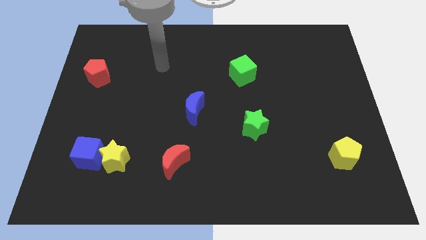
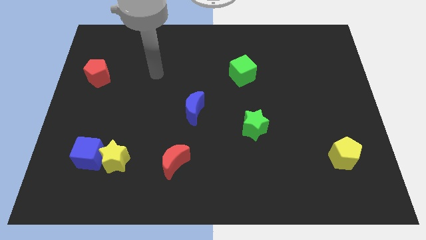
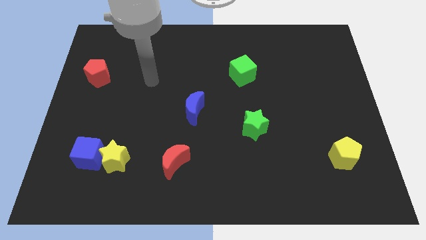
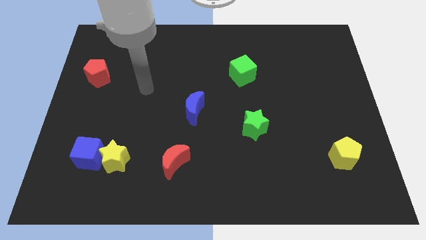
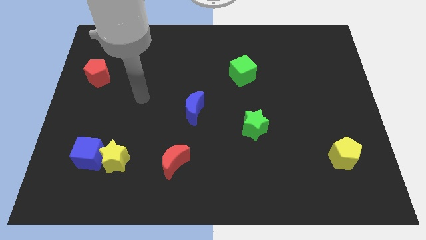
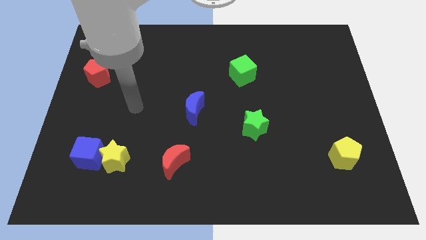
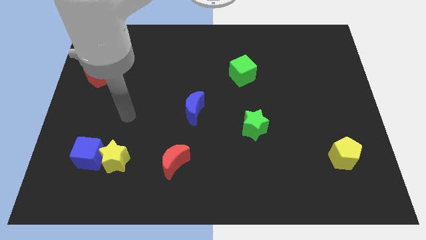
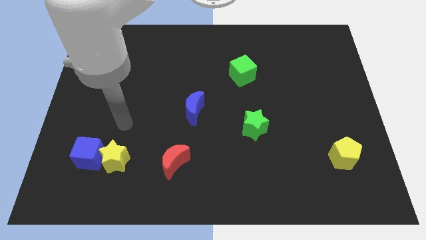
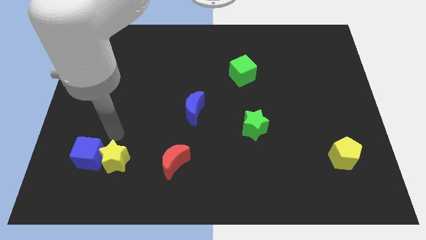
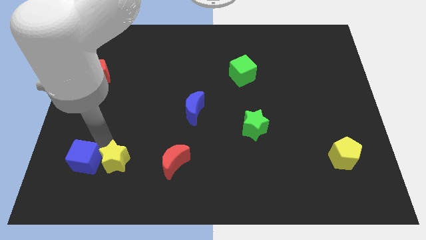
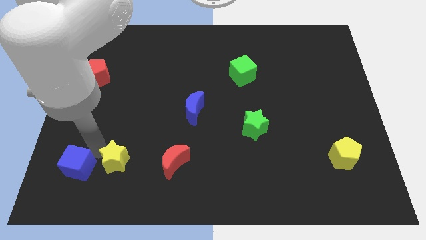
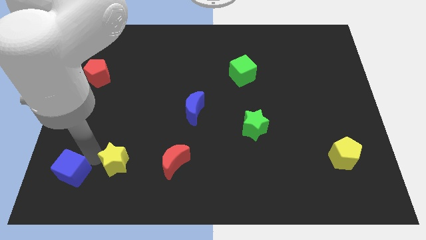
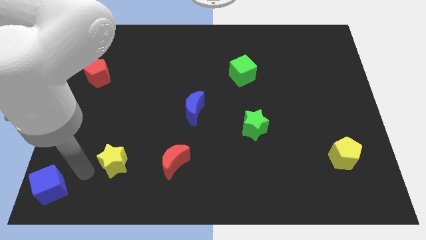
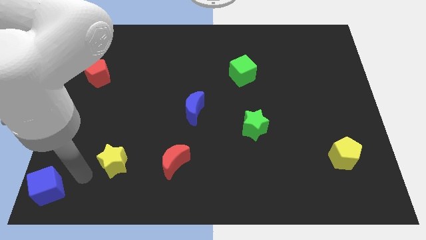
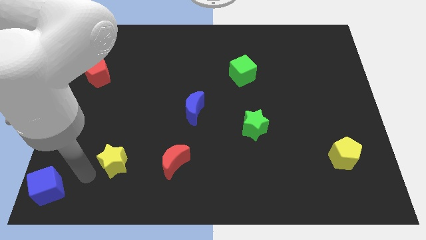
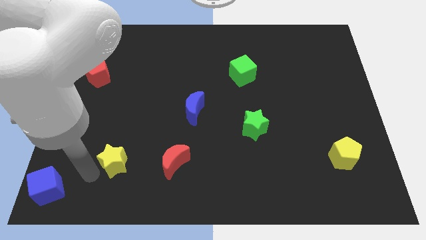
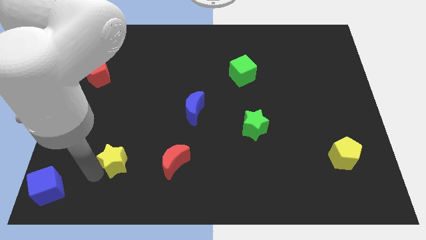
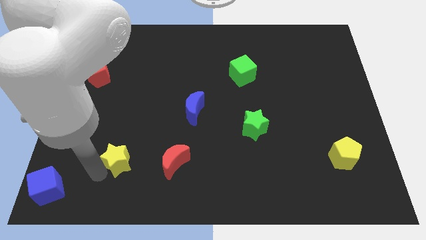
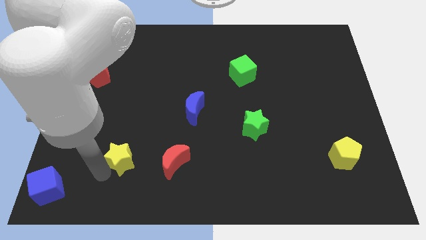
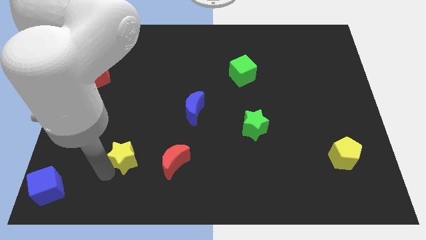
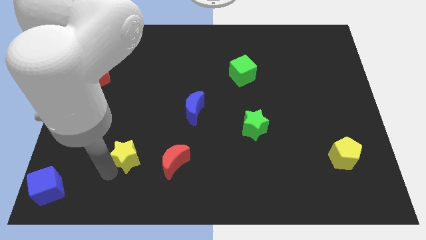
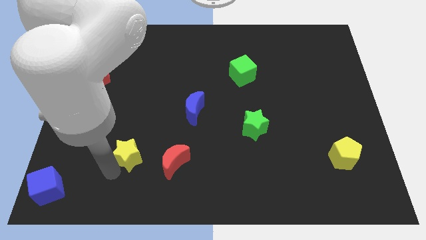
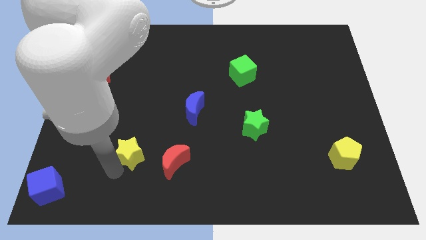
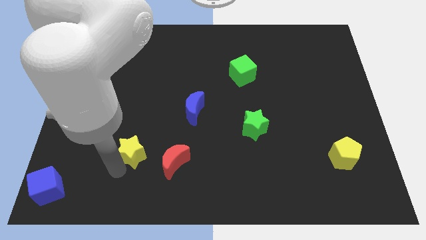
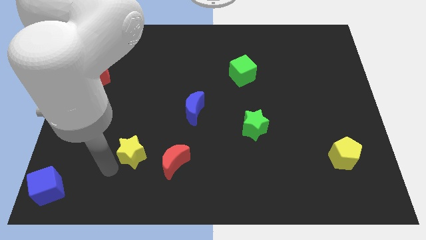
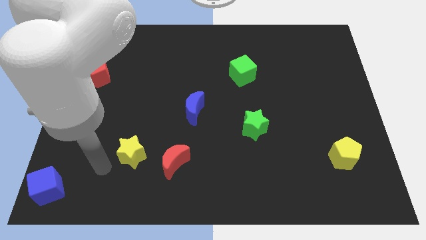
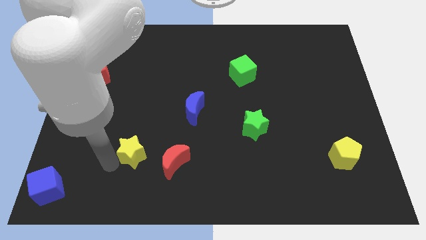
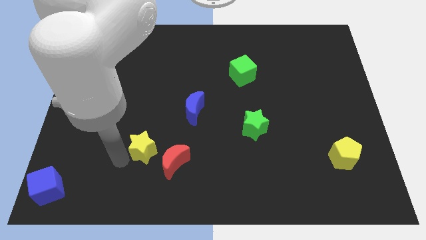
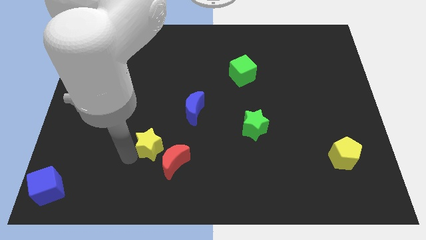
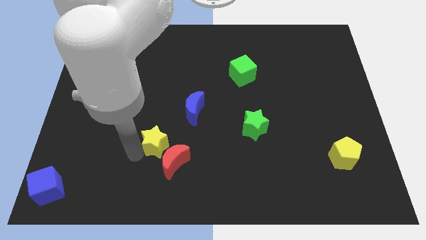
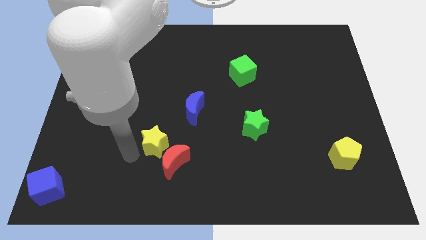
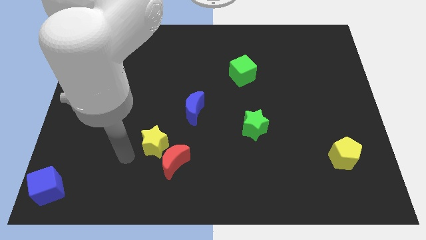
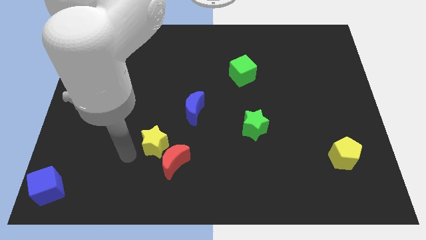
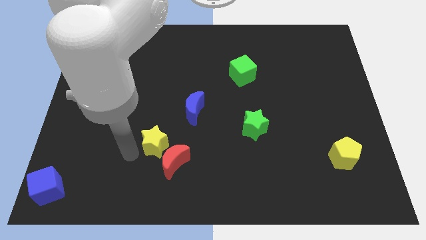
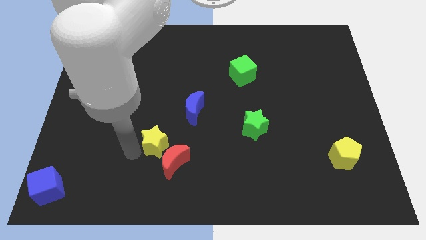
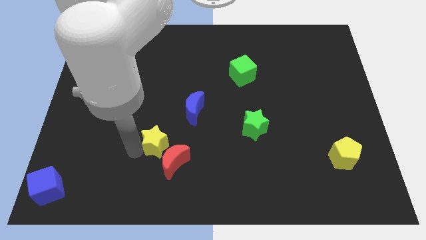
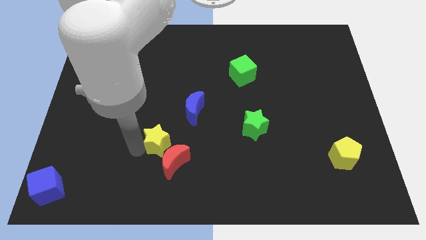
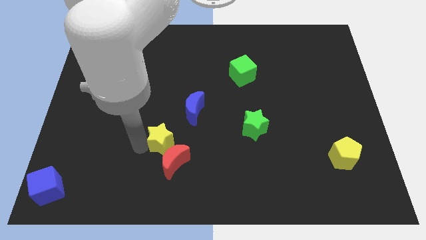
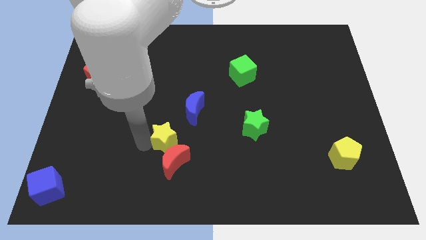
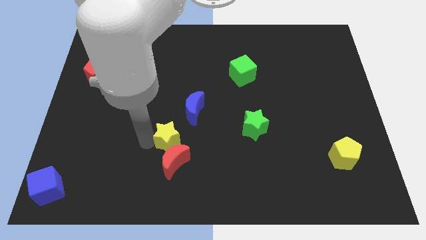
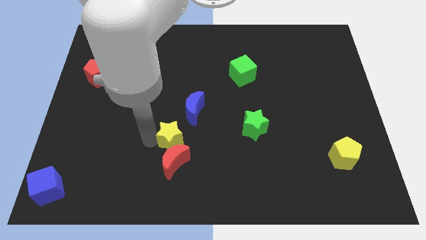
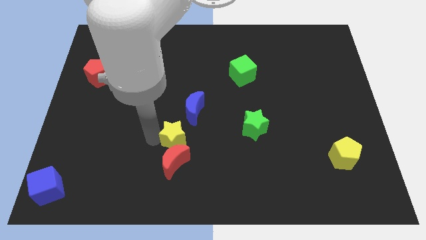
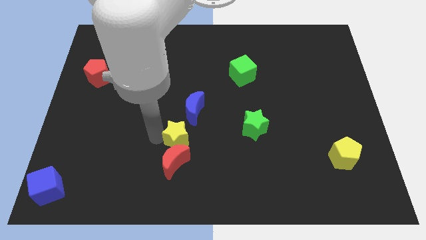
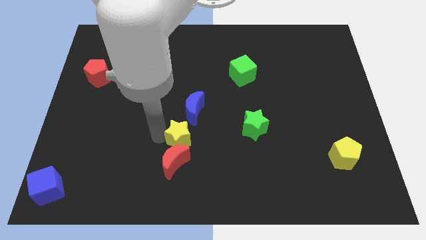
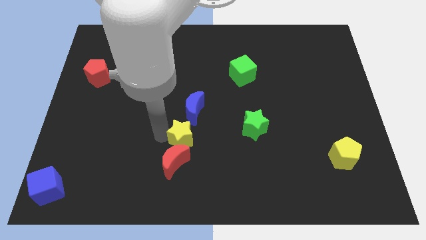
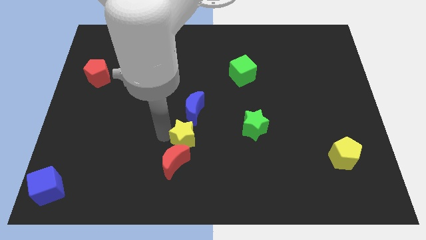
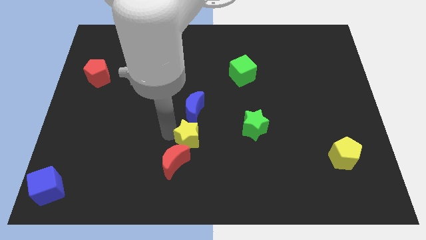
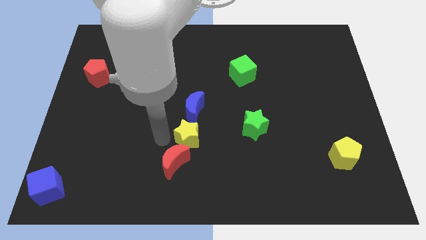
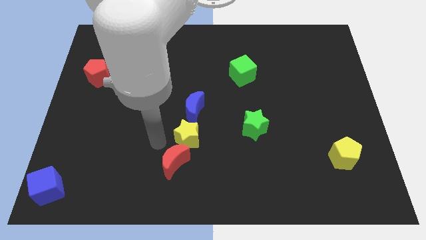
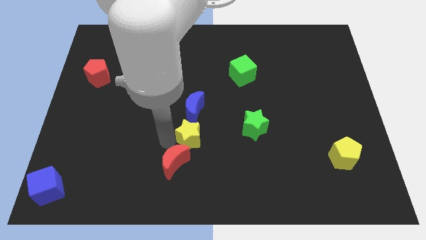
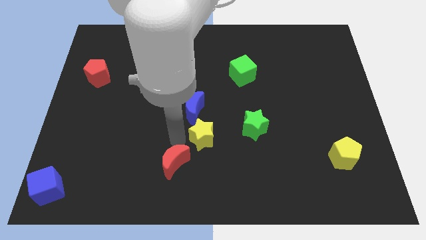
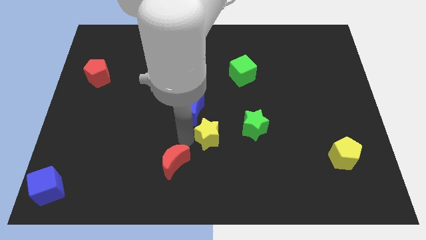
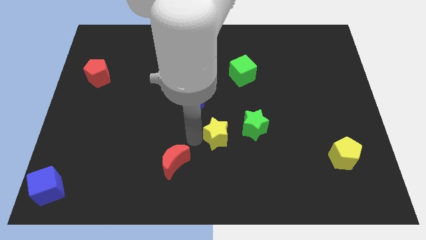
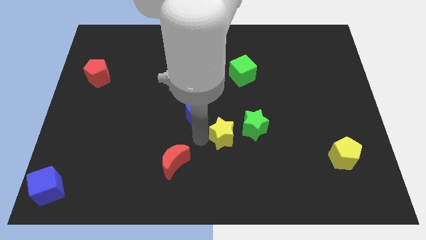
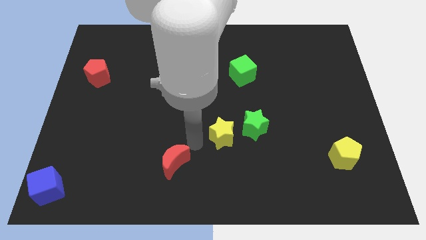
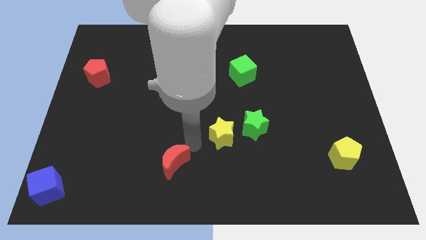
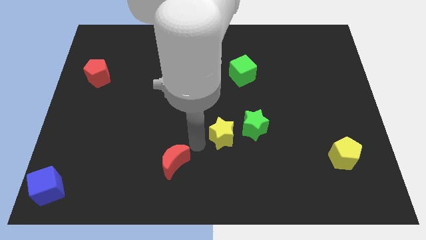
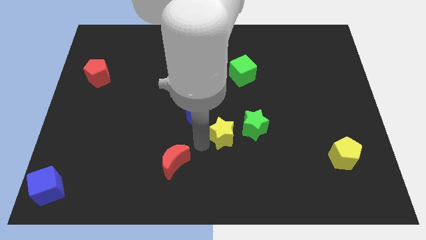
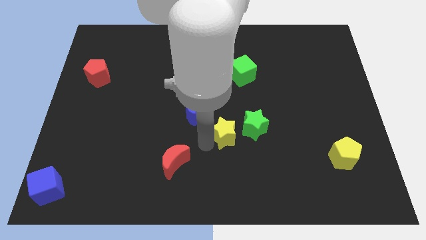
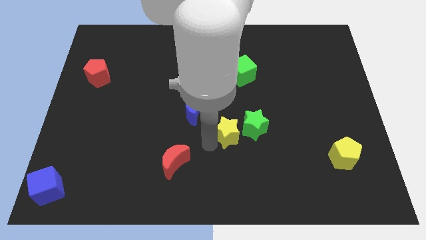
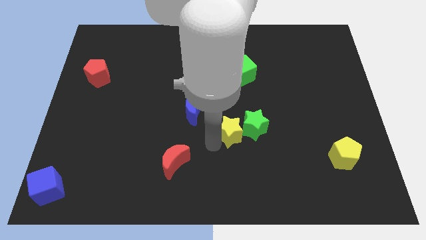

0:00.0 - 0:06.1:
push the yellow star next to the green star
